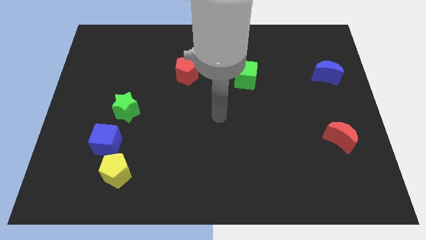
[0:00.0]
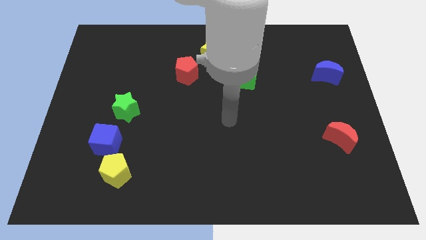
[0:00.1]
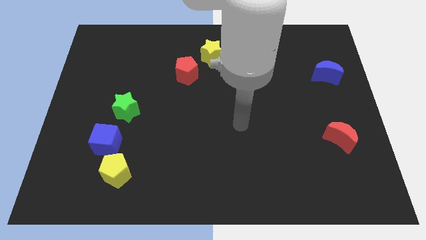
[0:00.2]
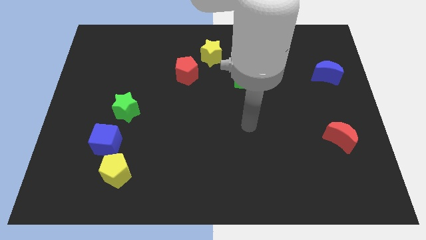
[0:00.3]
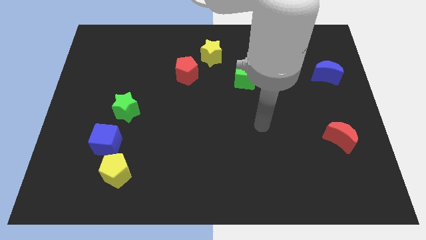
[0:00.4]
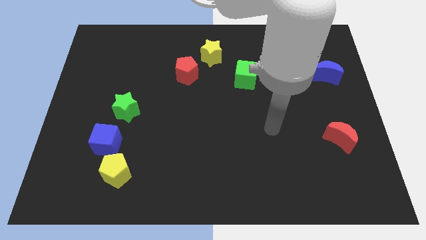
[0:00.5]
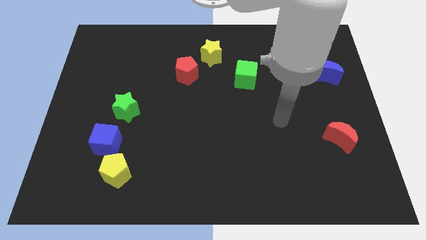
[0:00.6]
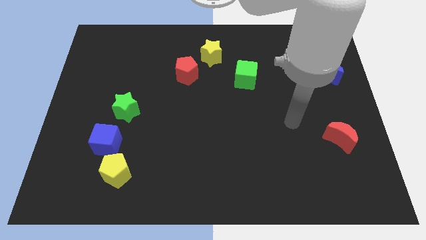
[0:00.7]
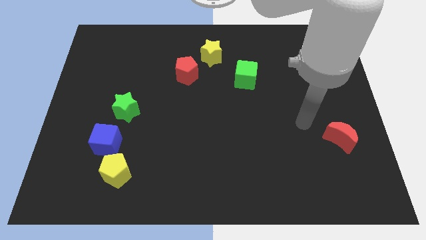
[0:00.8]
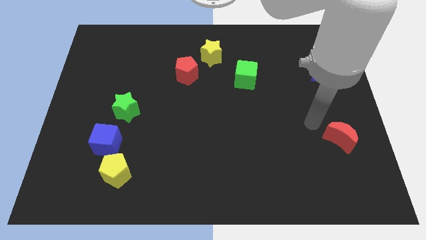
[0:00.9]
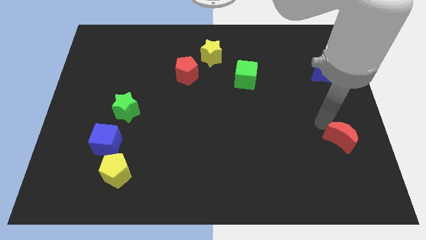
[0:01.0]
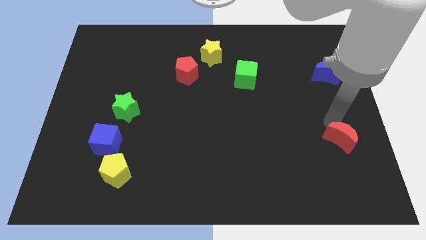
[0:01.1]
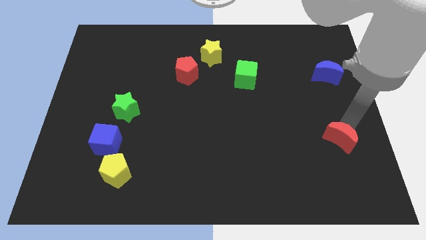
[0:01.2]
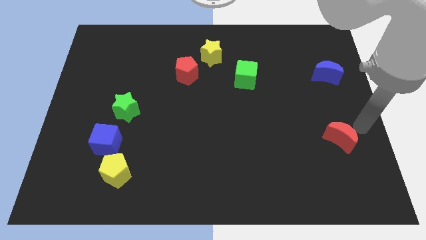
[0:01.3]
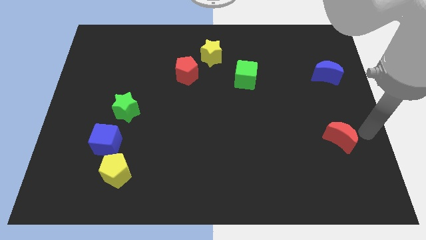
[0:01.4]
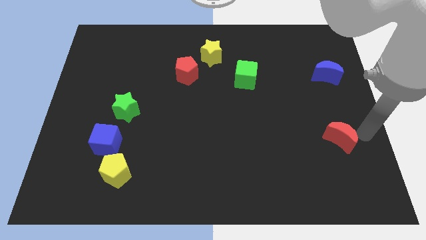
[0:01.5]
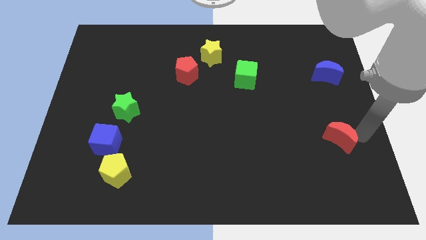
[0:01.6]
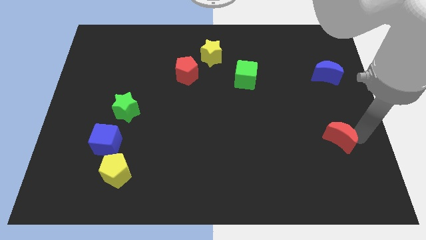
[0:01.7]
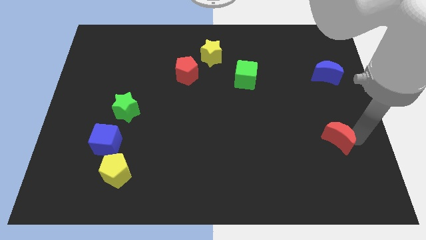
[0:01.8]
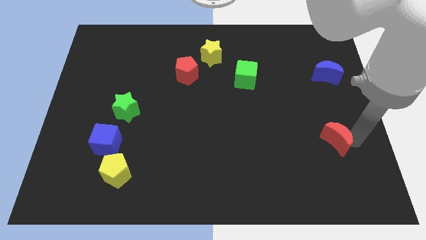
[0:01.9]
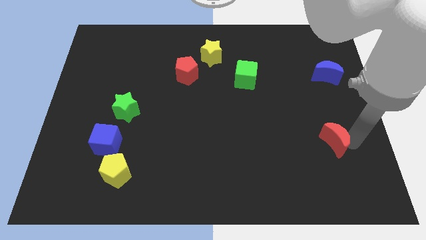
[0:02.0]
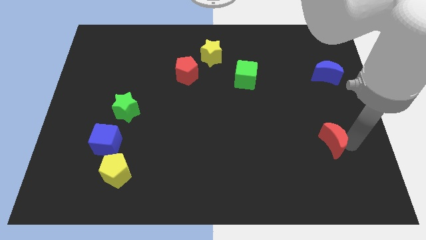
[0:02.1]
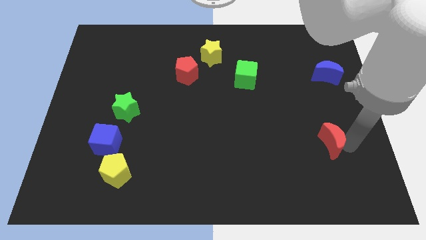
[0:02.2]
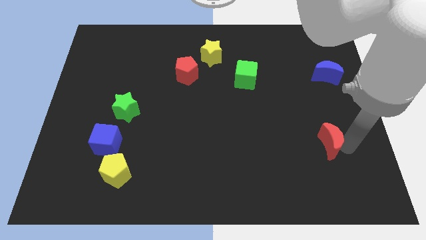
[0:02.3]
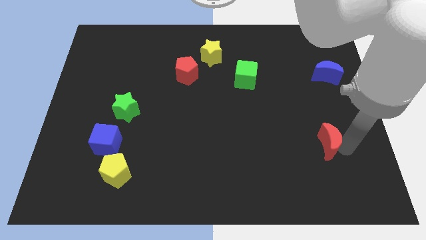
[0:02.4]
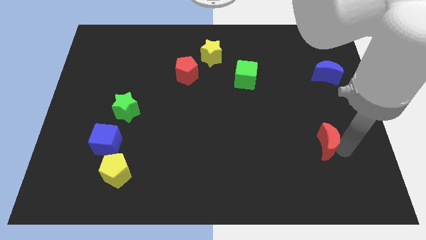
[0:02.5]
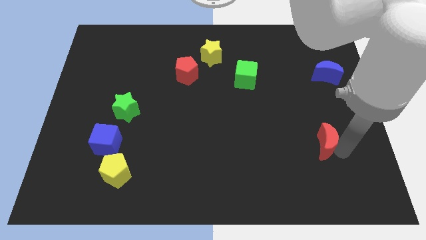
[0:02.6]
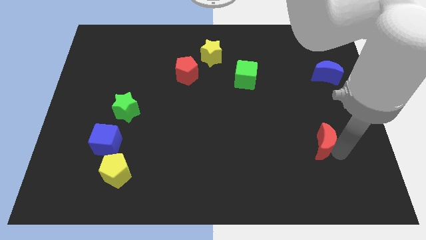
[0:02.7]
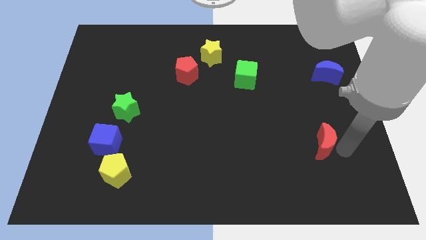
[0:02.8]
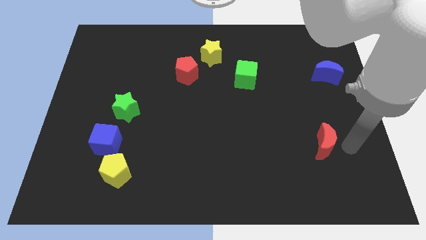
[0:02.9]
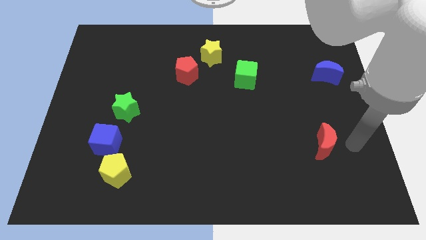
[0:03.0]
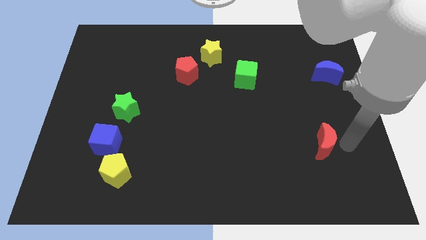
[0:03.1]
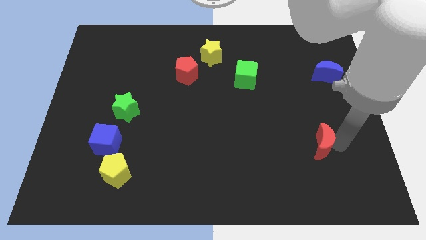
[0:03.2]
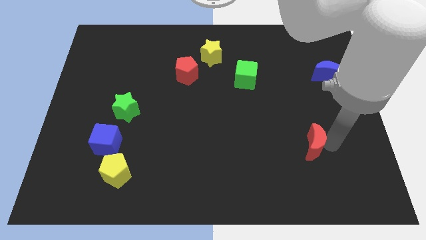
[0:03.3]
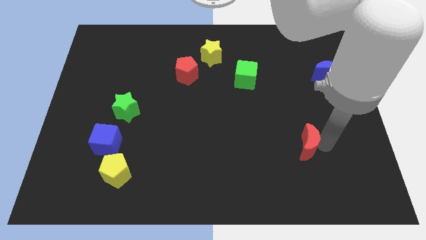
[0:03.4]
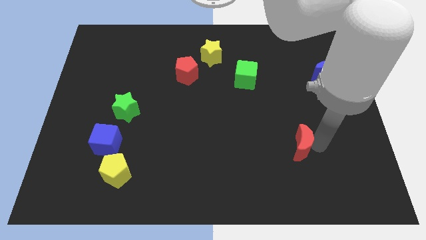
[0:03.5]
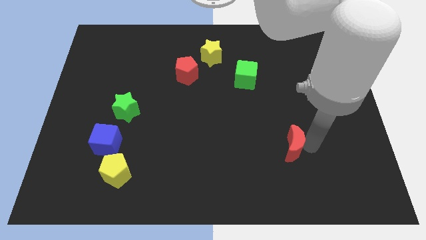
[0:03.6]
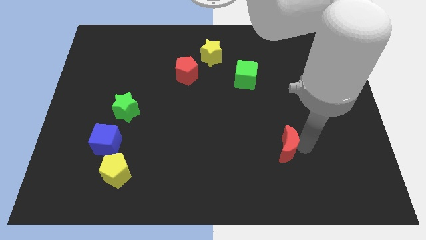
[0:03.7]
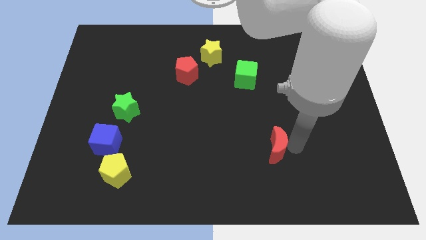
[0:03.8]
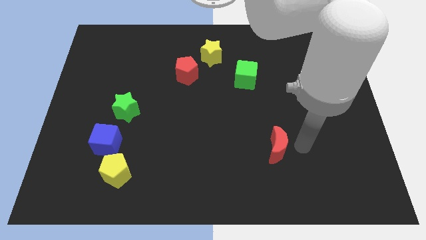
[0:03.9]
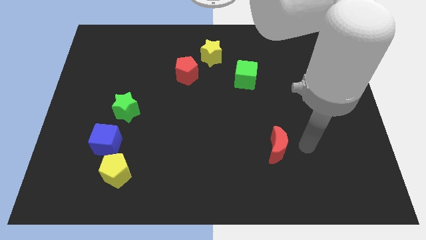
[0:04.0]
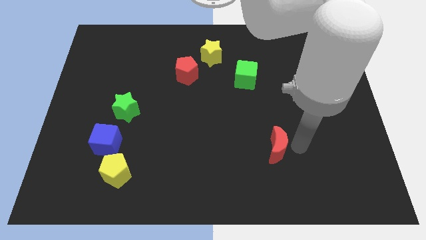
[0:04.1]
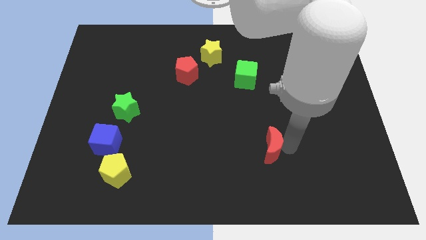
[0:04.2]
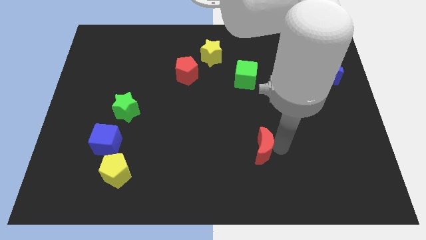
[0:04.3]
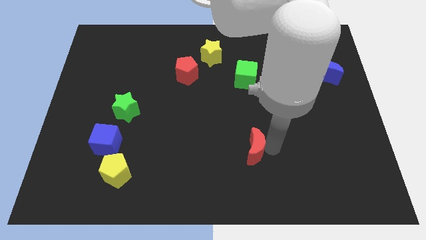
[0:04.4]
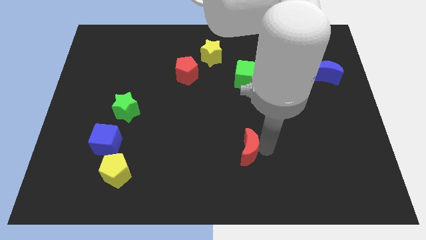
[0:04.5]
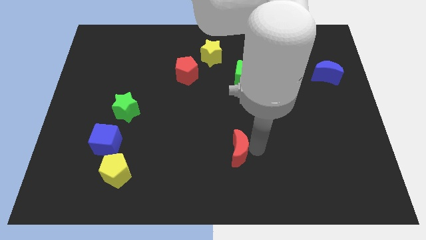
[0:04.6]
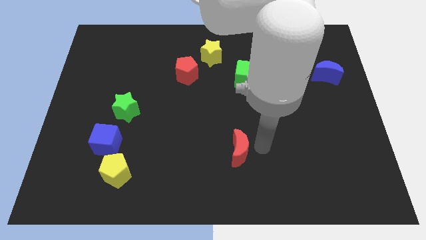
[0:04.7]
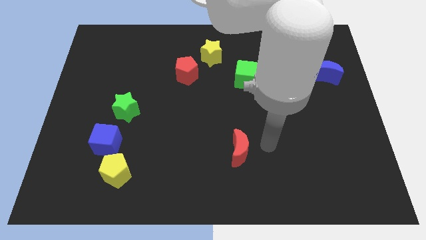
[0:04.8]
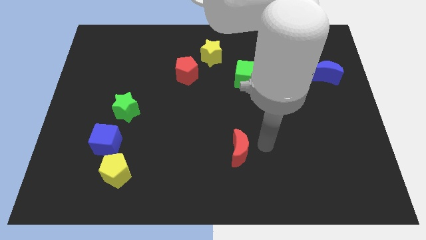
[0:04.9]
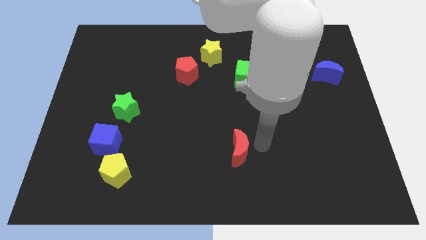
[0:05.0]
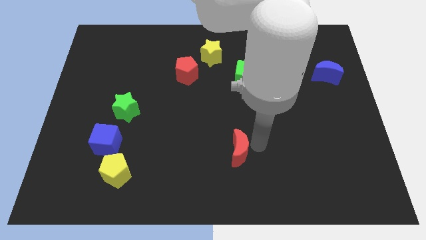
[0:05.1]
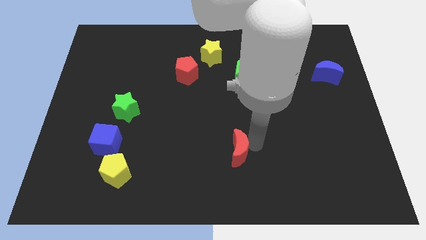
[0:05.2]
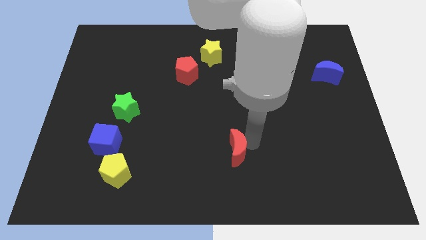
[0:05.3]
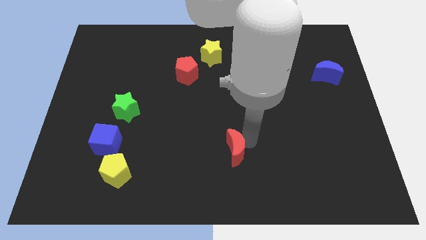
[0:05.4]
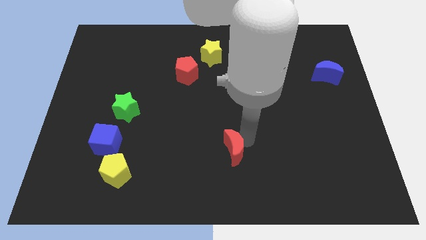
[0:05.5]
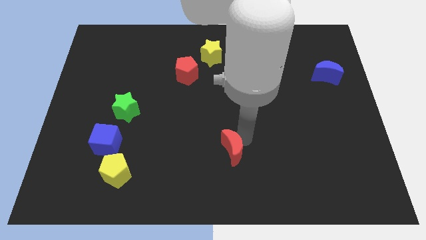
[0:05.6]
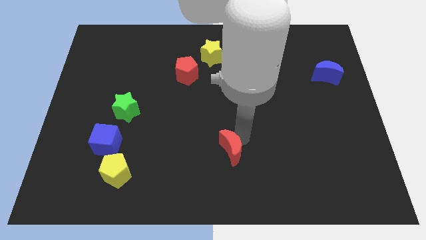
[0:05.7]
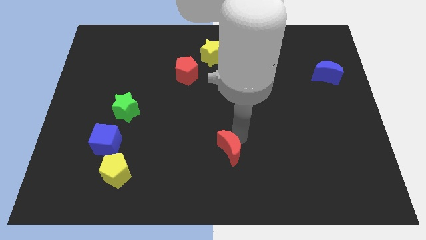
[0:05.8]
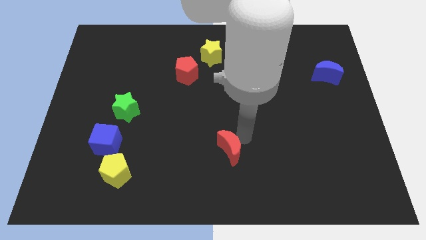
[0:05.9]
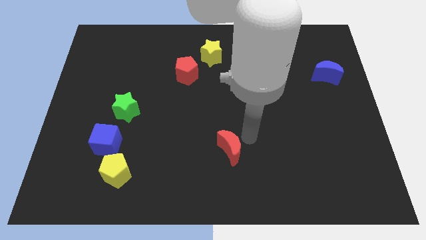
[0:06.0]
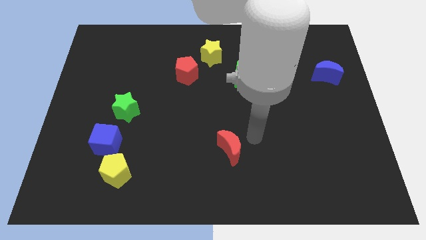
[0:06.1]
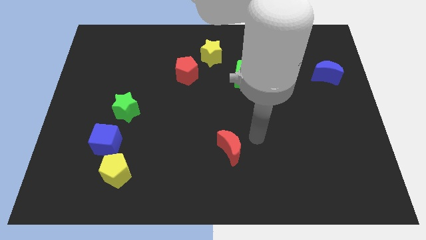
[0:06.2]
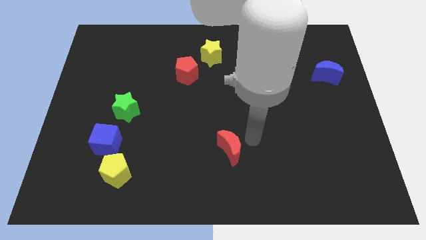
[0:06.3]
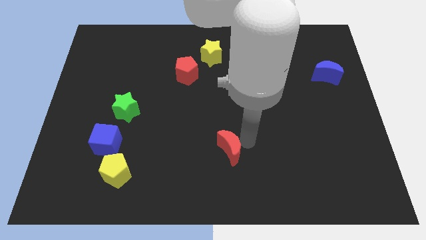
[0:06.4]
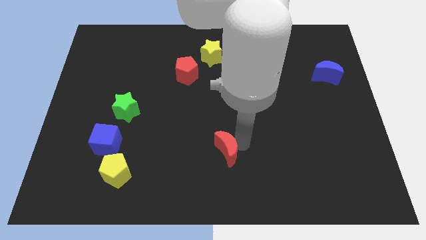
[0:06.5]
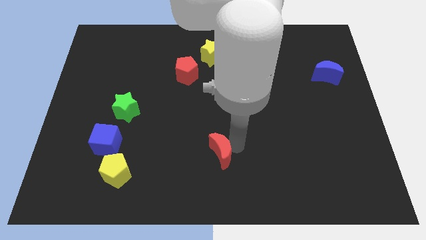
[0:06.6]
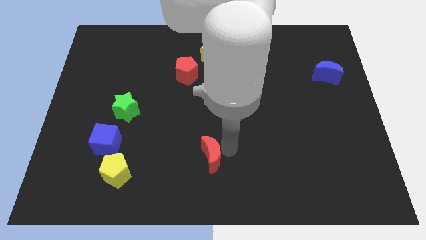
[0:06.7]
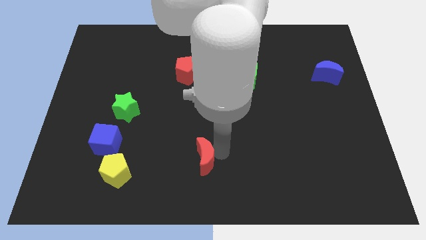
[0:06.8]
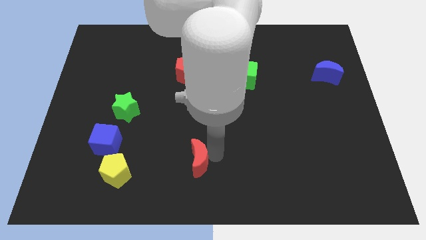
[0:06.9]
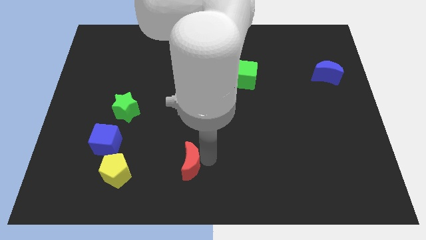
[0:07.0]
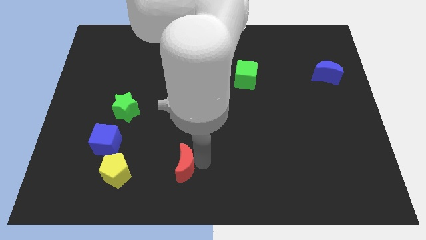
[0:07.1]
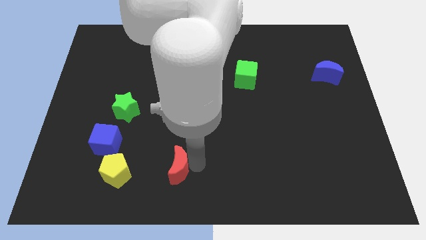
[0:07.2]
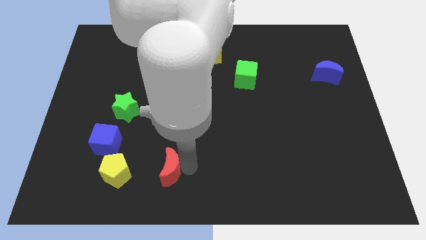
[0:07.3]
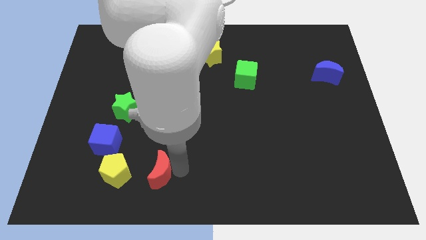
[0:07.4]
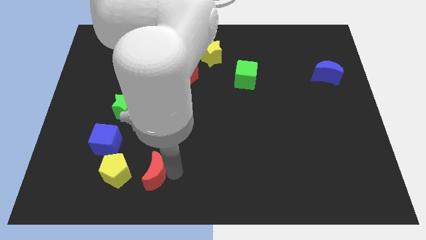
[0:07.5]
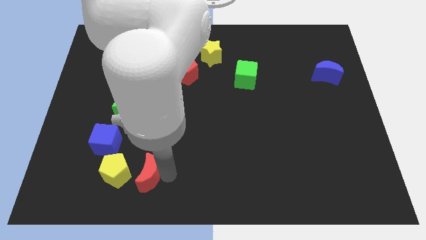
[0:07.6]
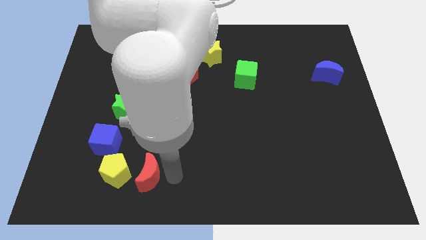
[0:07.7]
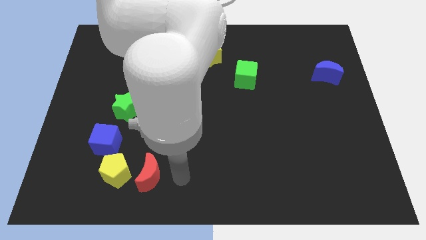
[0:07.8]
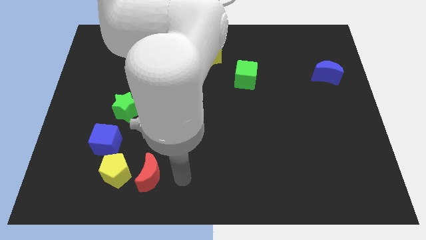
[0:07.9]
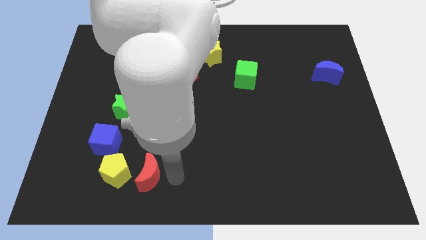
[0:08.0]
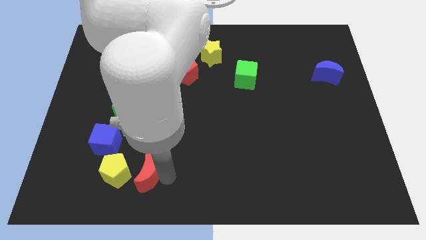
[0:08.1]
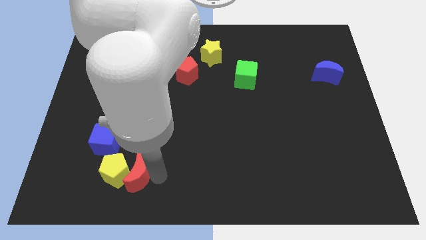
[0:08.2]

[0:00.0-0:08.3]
put the red moon close to the yellow pentagon
